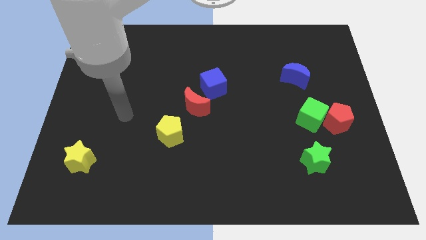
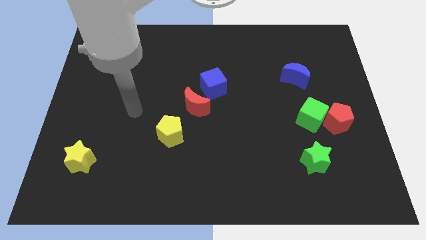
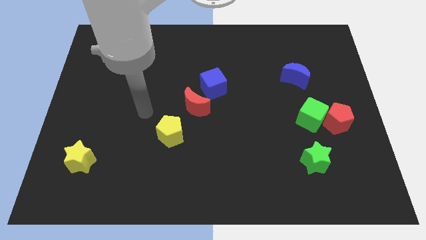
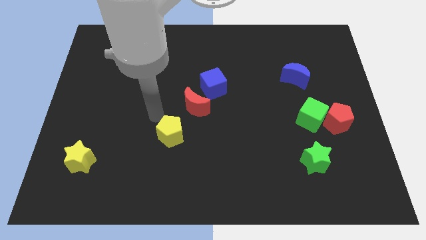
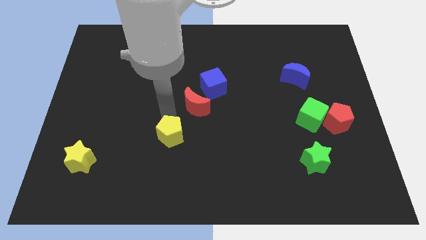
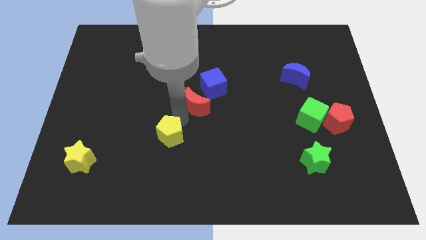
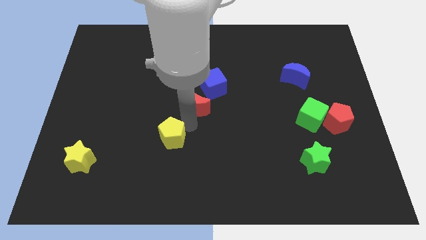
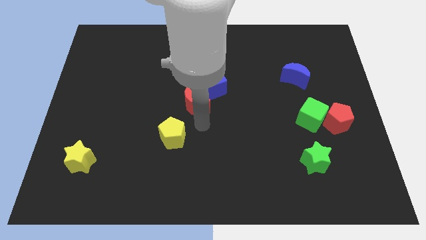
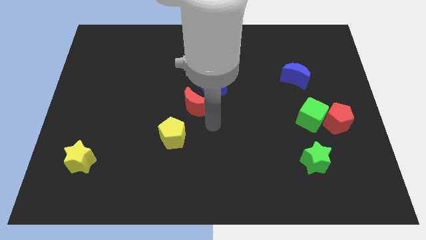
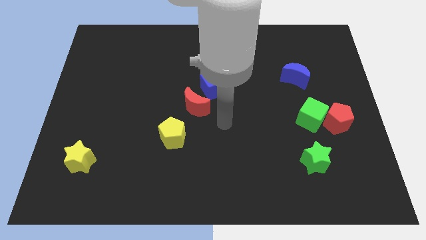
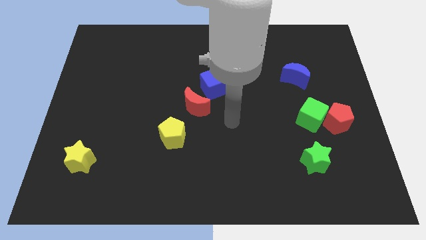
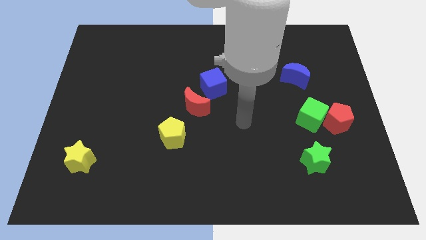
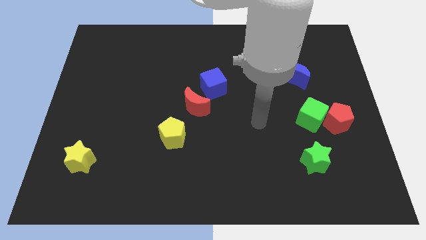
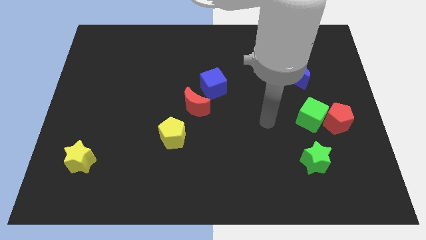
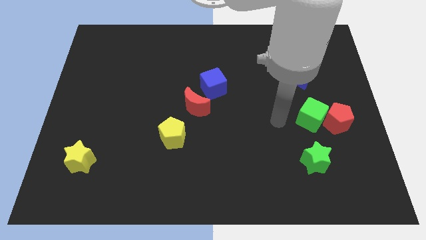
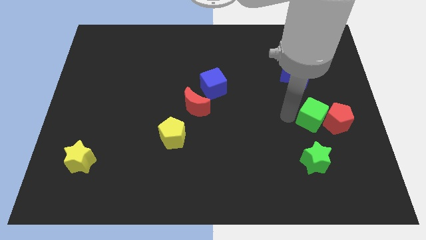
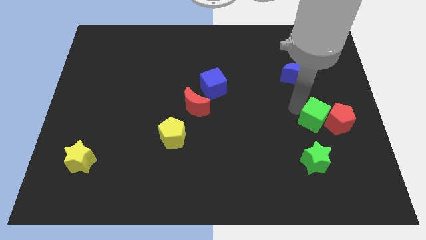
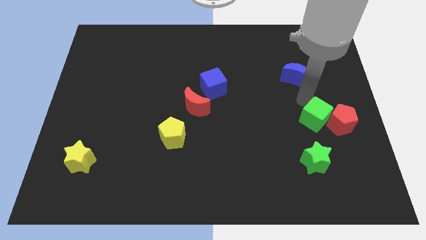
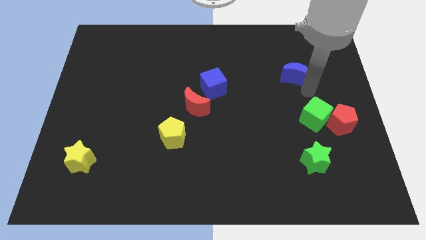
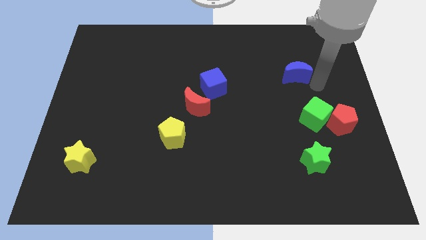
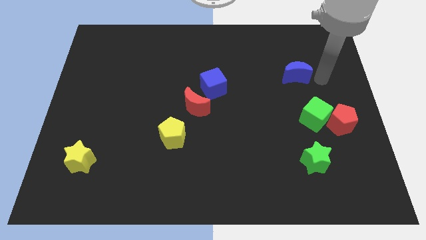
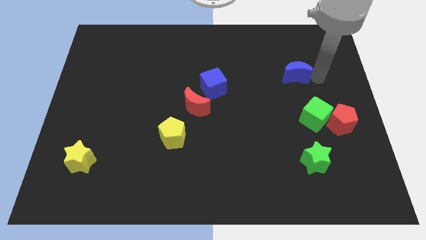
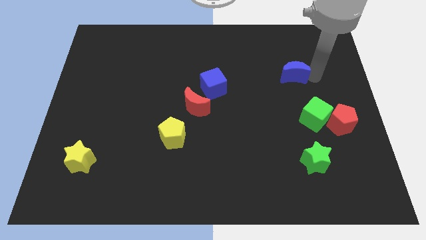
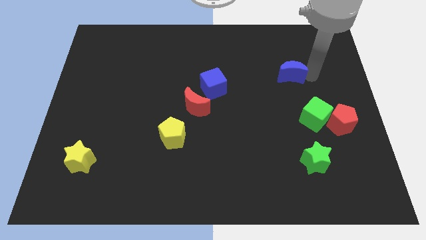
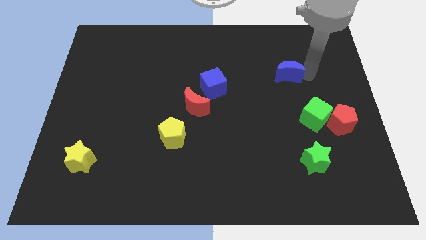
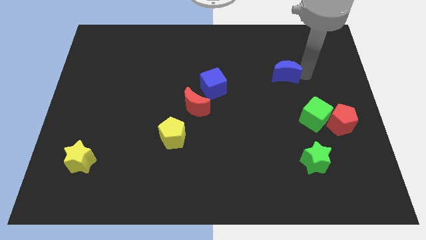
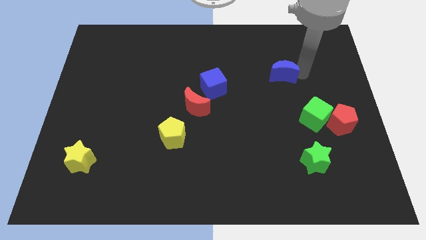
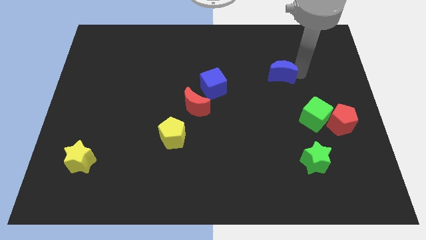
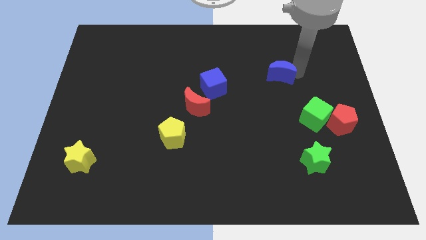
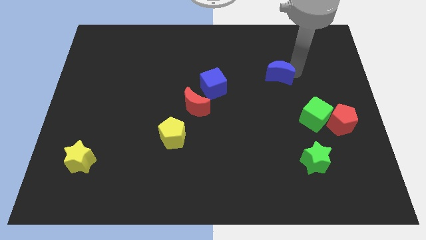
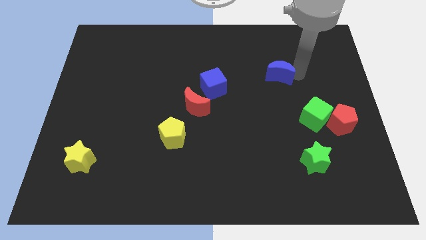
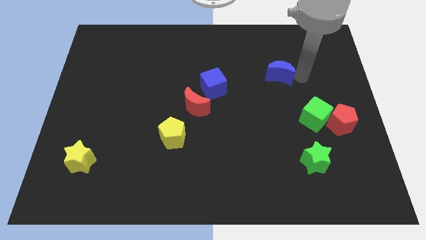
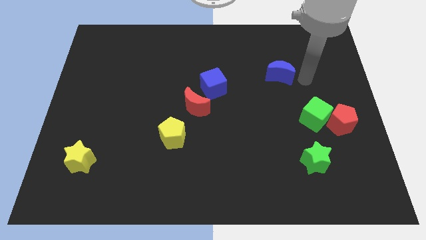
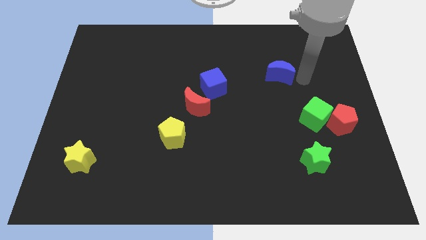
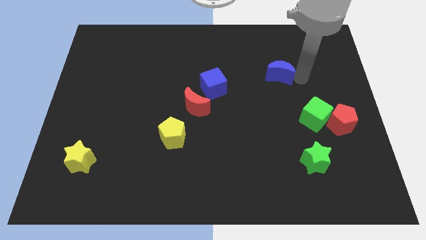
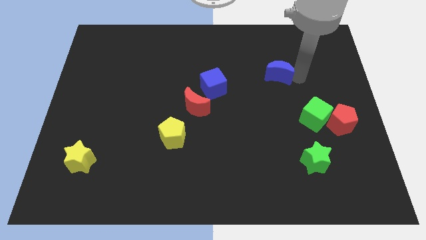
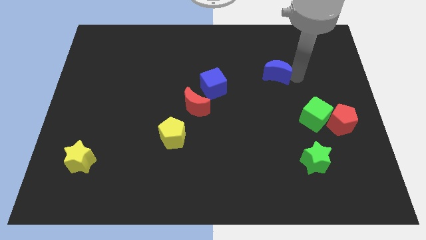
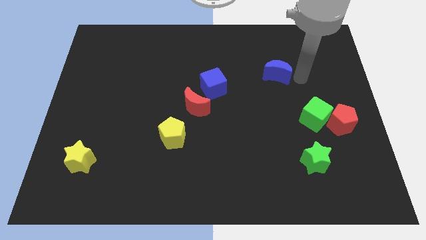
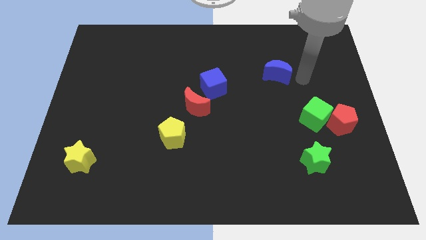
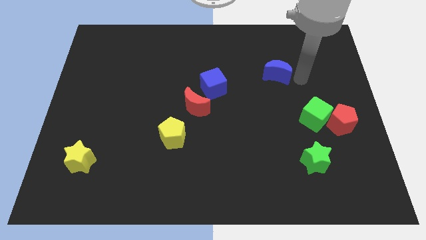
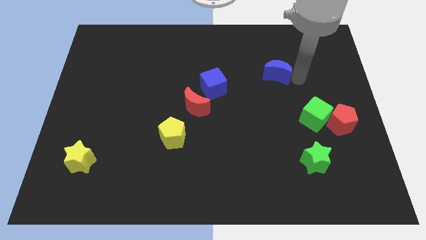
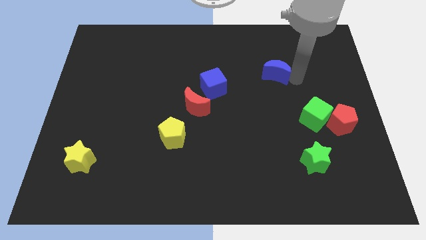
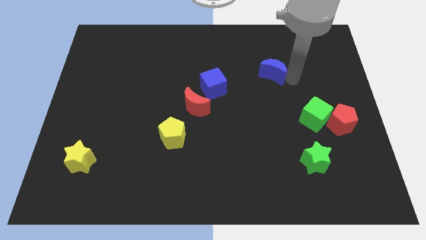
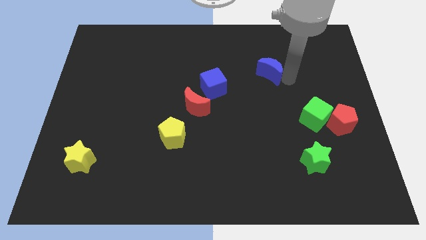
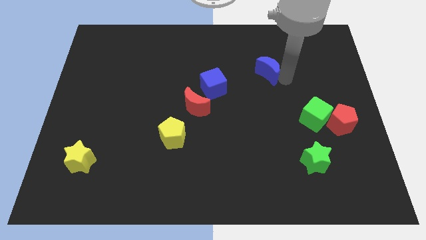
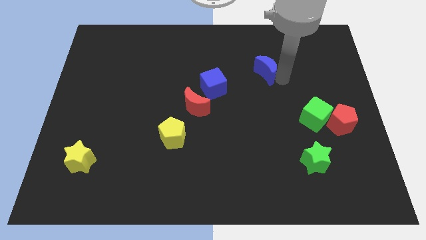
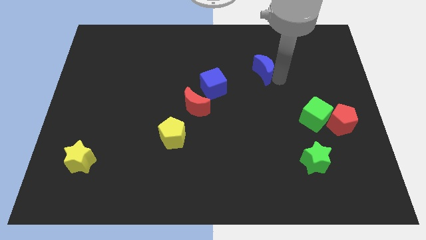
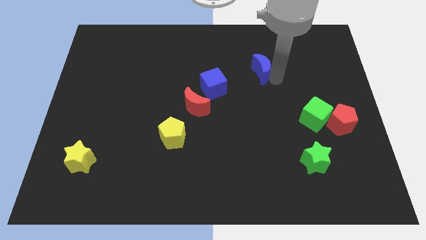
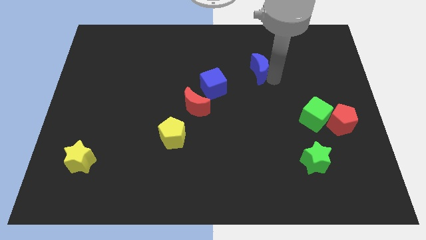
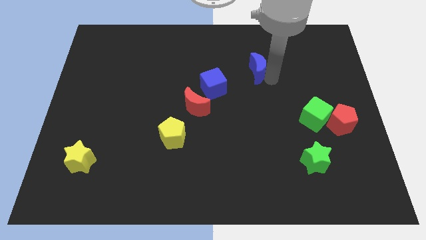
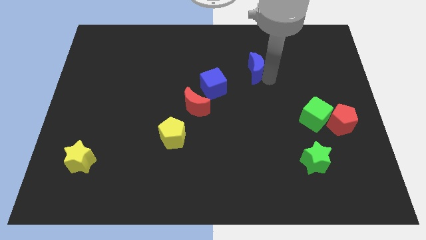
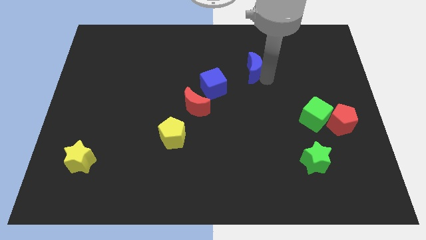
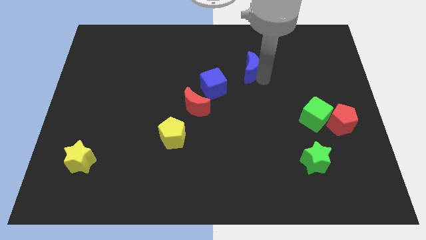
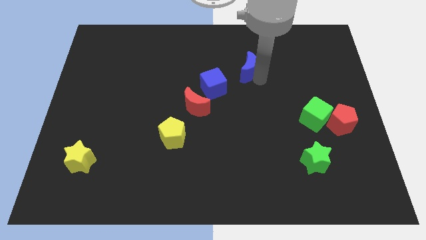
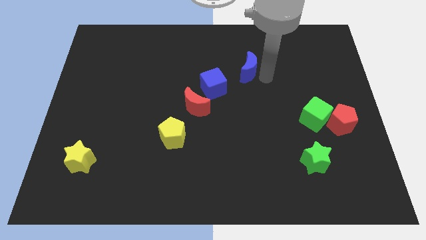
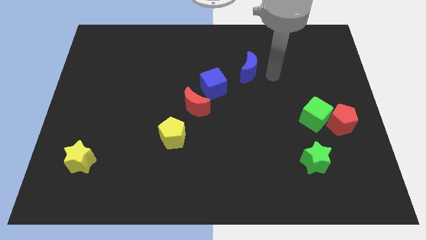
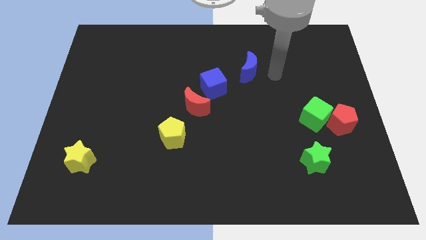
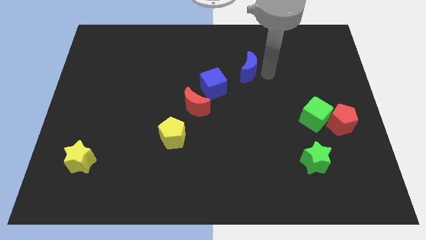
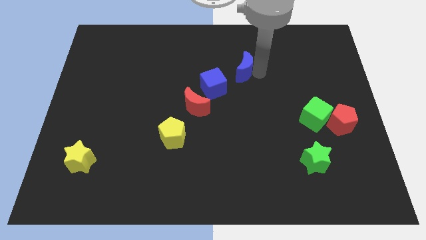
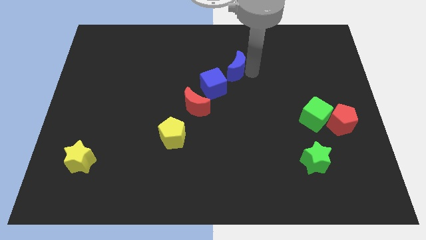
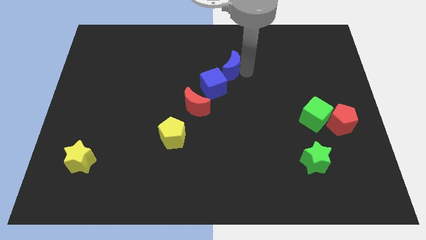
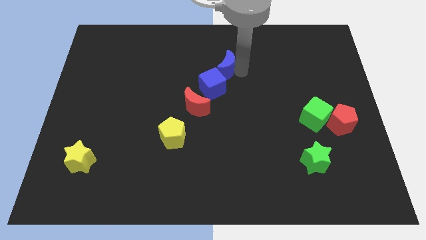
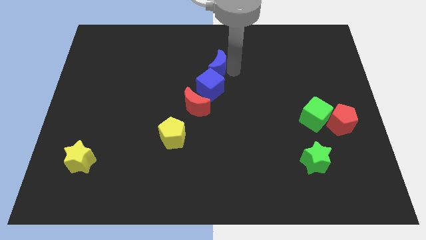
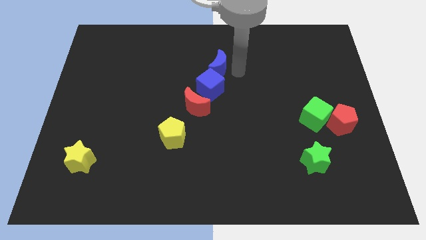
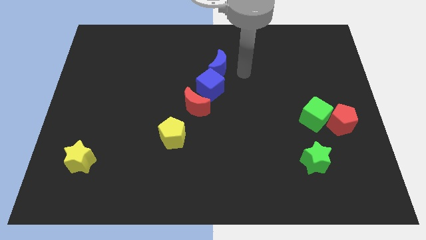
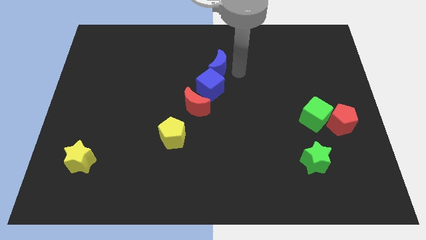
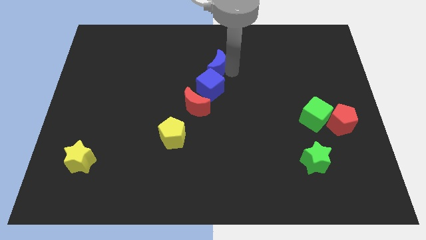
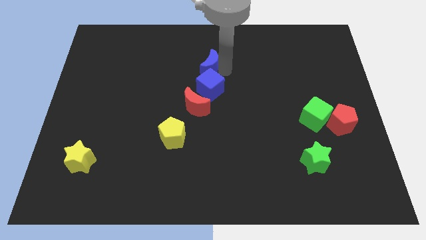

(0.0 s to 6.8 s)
push the blue moon to the left

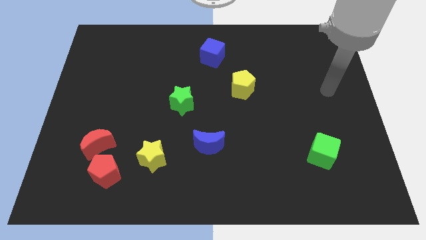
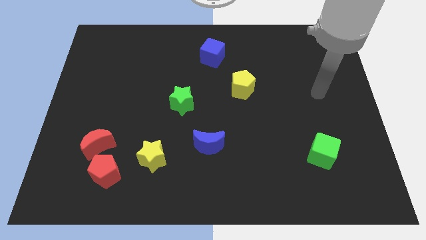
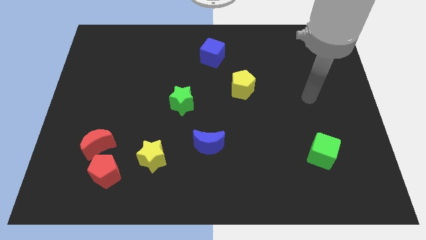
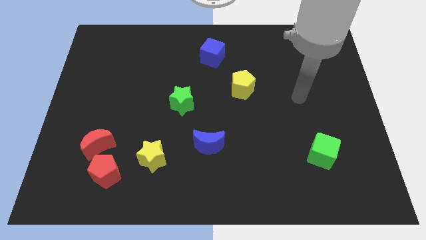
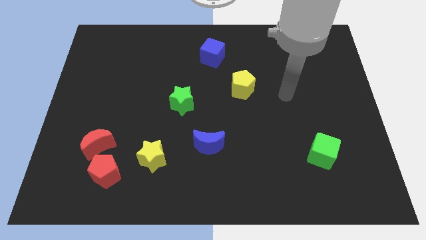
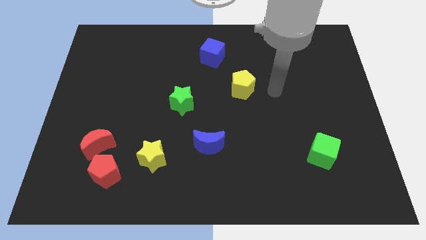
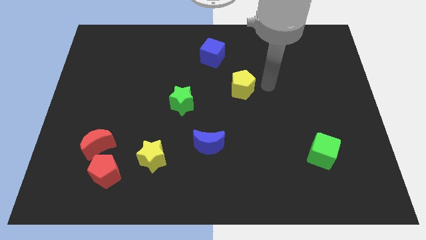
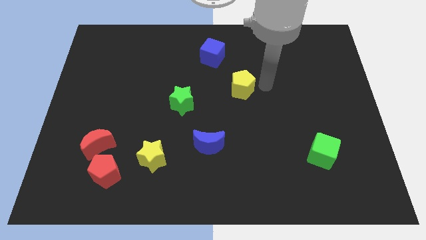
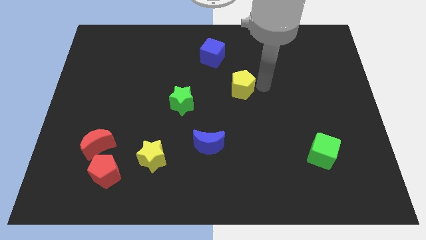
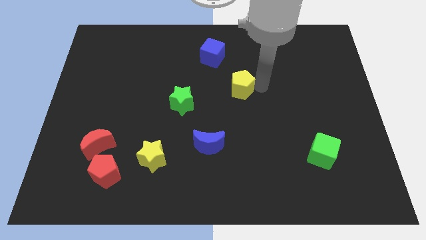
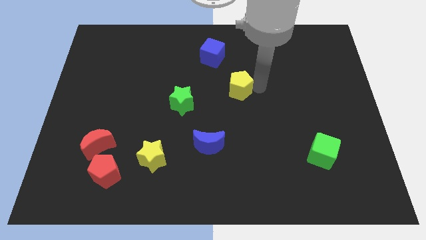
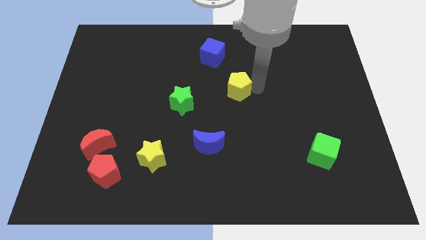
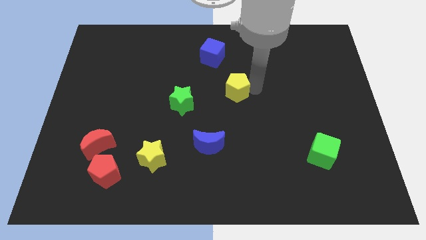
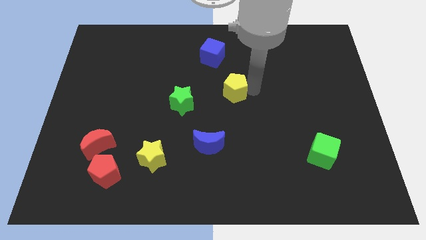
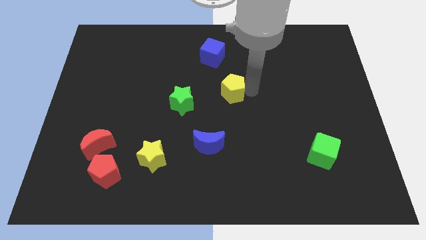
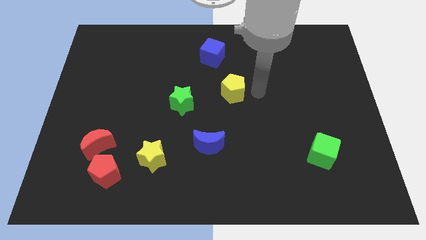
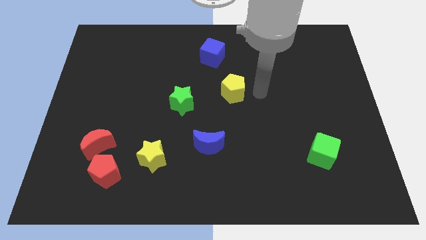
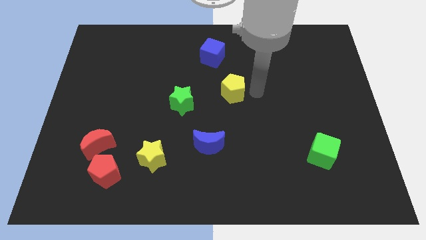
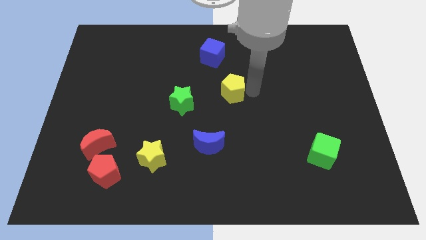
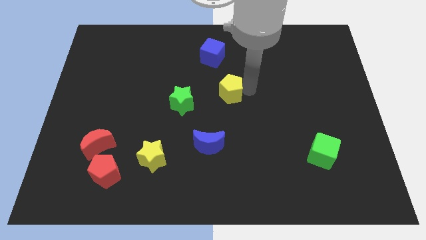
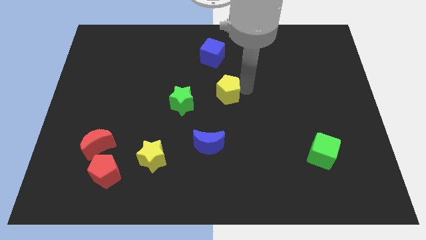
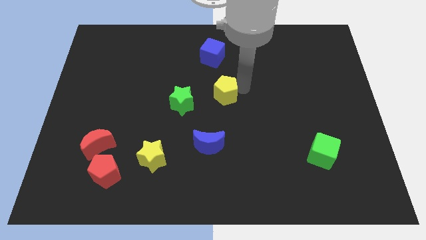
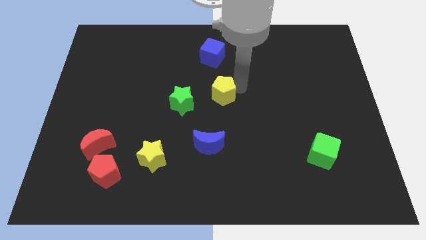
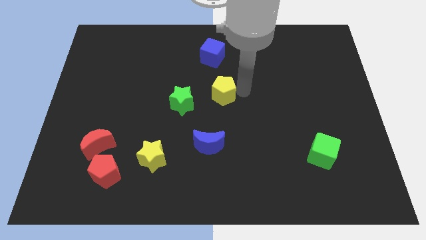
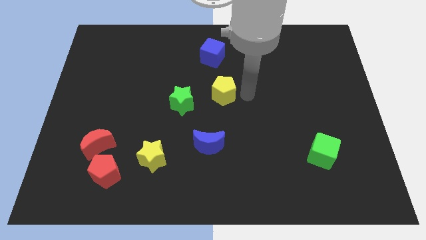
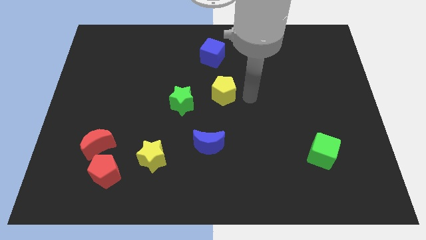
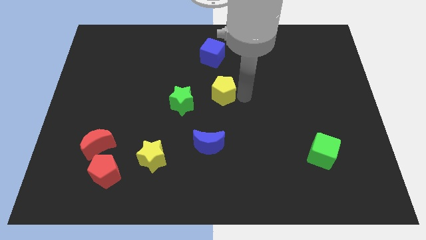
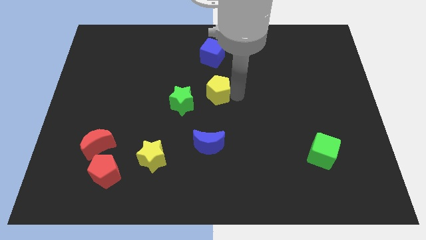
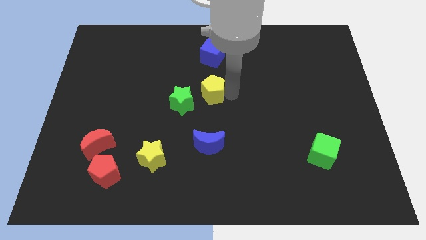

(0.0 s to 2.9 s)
slightly move the yellow pentagon left
